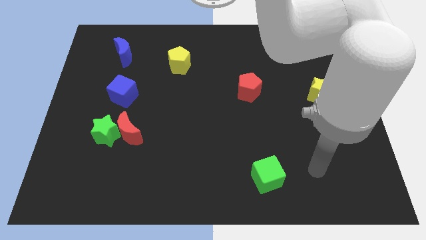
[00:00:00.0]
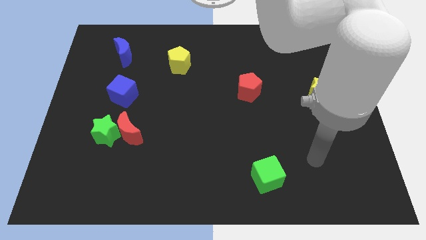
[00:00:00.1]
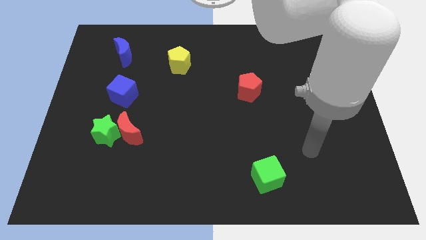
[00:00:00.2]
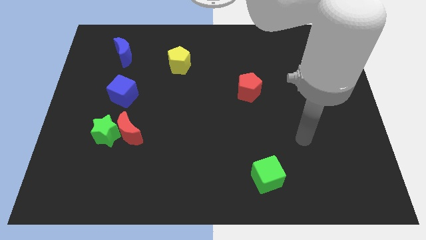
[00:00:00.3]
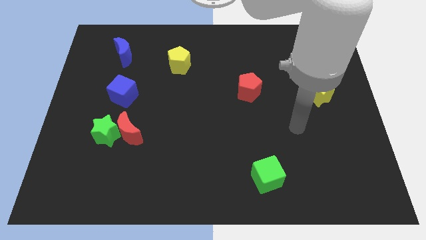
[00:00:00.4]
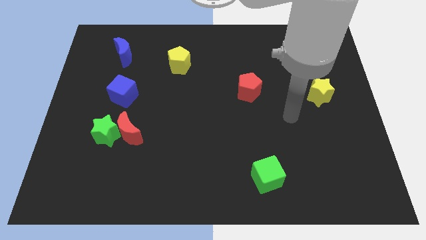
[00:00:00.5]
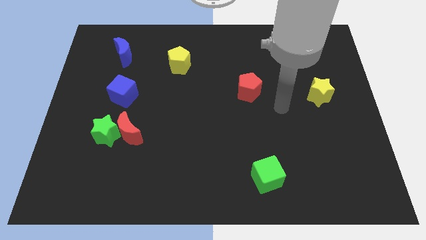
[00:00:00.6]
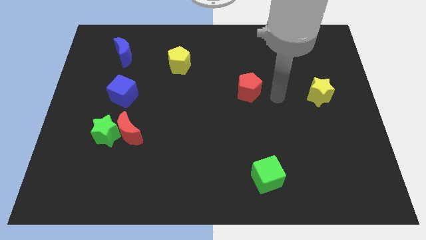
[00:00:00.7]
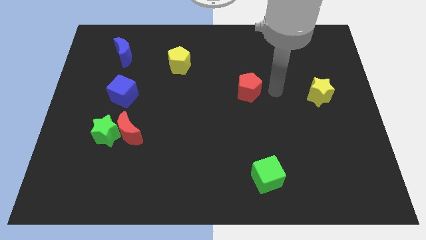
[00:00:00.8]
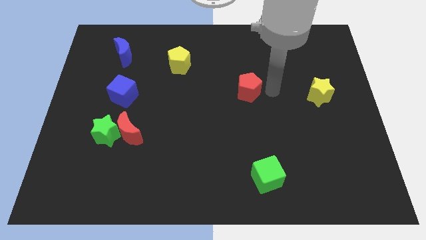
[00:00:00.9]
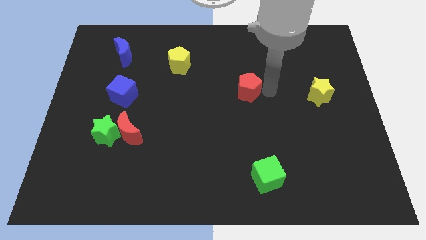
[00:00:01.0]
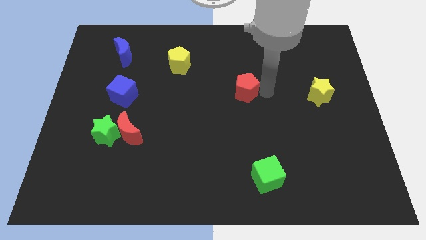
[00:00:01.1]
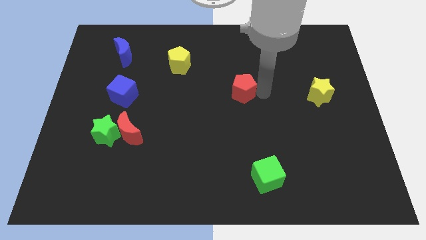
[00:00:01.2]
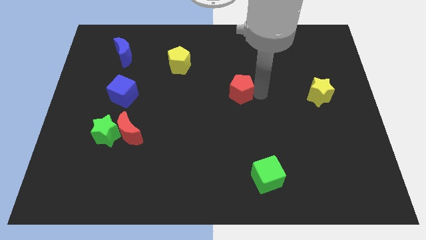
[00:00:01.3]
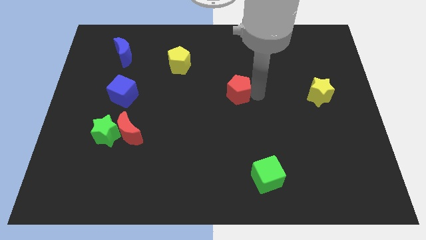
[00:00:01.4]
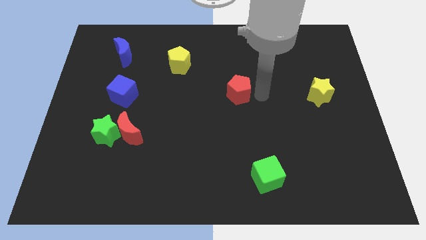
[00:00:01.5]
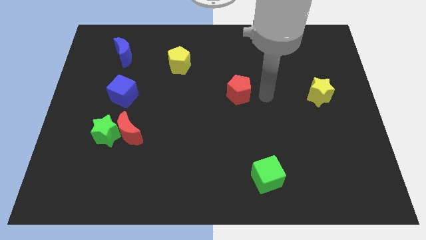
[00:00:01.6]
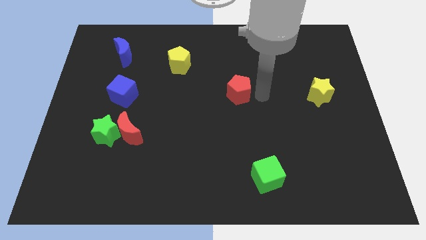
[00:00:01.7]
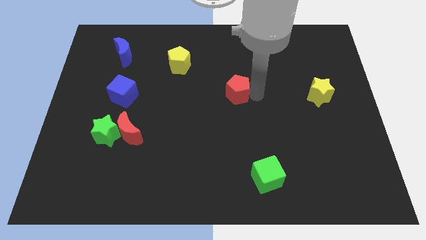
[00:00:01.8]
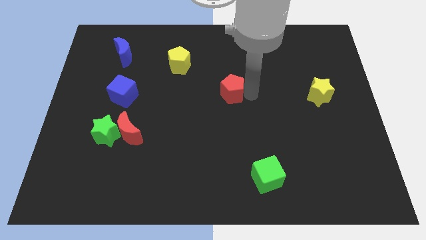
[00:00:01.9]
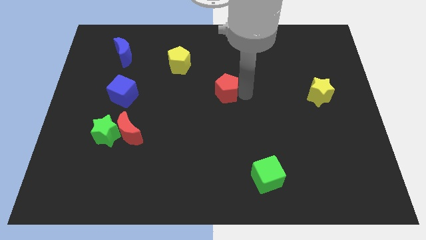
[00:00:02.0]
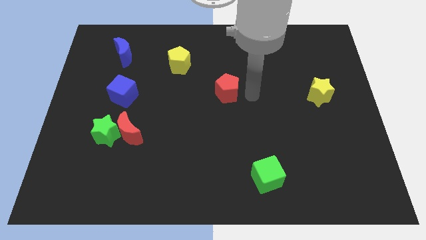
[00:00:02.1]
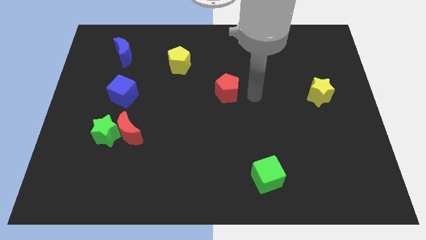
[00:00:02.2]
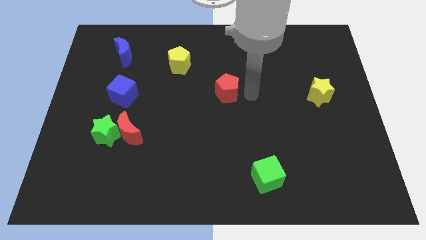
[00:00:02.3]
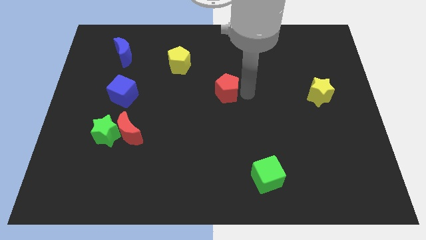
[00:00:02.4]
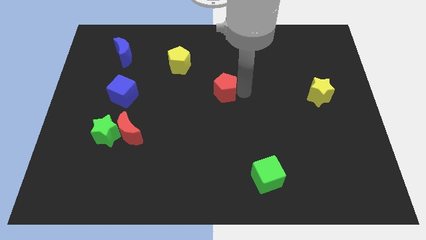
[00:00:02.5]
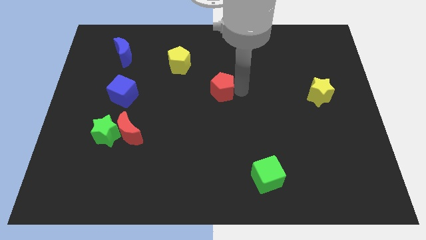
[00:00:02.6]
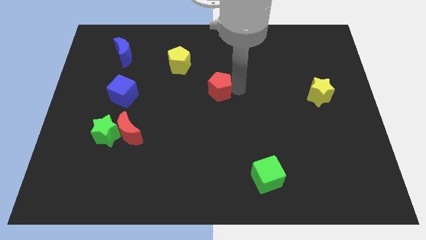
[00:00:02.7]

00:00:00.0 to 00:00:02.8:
slide the red pentagon to the left slightly

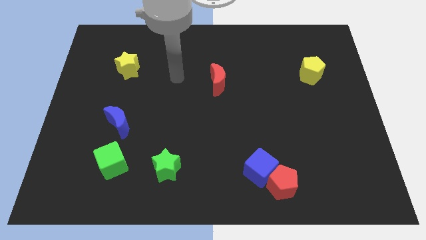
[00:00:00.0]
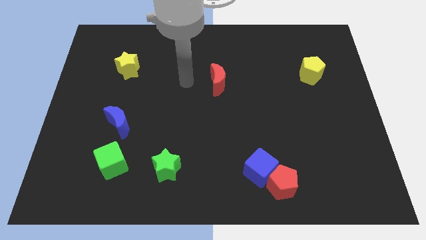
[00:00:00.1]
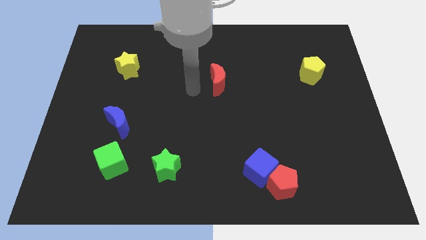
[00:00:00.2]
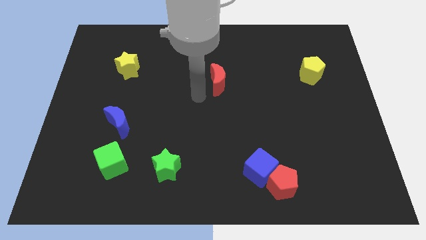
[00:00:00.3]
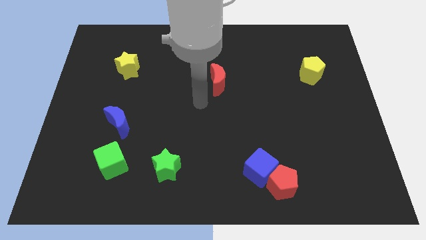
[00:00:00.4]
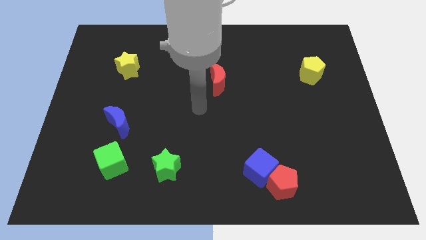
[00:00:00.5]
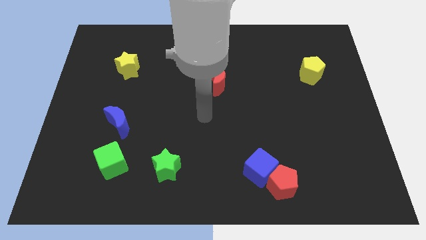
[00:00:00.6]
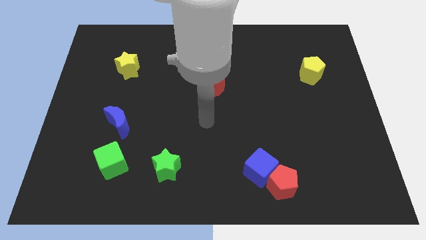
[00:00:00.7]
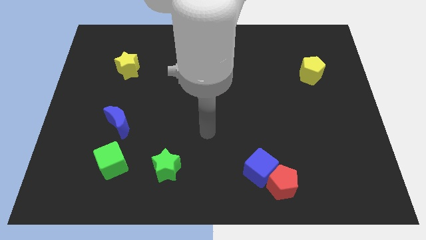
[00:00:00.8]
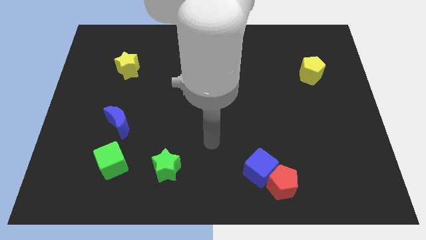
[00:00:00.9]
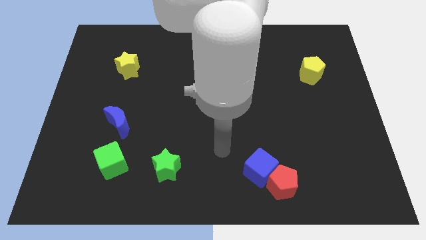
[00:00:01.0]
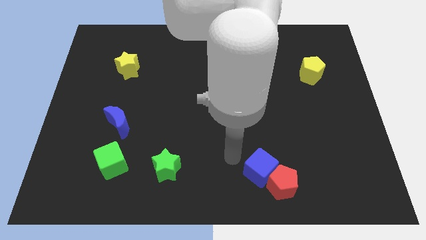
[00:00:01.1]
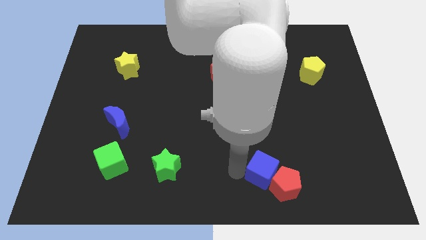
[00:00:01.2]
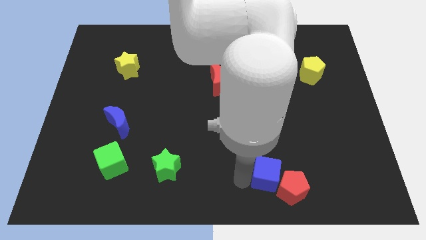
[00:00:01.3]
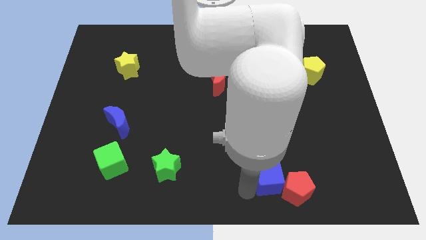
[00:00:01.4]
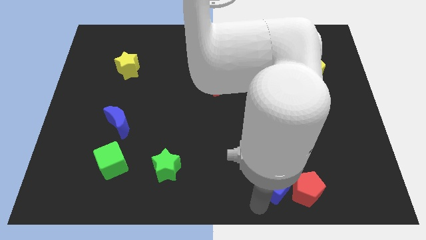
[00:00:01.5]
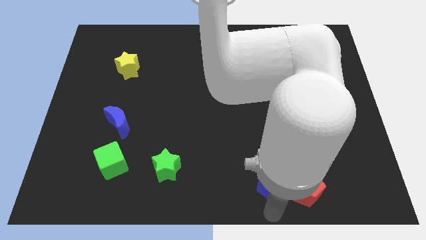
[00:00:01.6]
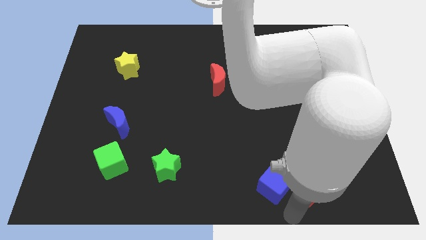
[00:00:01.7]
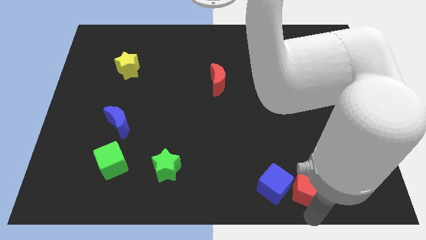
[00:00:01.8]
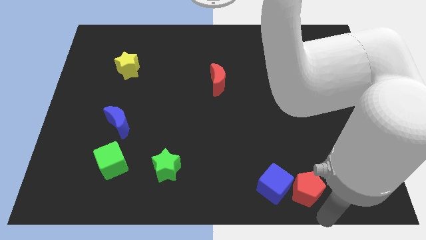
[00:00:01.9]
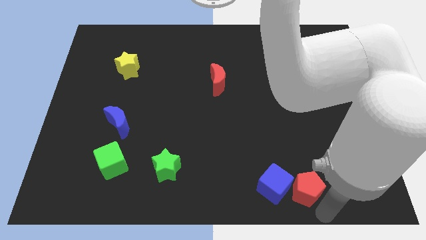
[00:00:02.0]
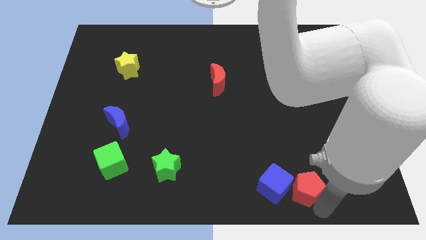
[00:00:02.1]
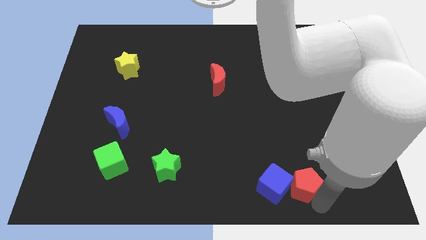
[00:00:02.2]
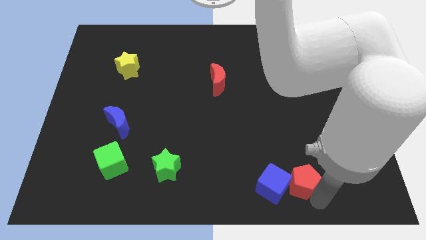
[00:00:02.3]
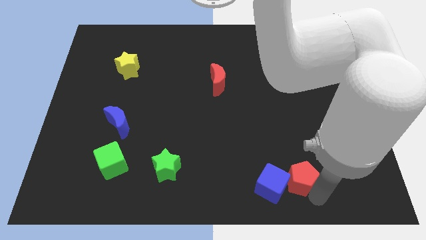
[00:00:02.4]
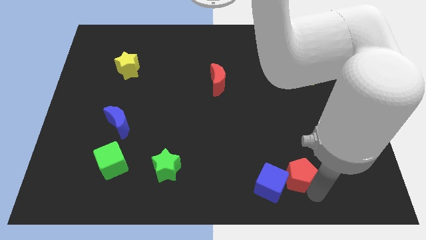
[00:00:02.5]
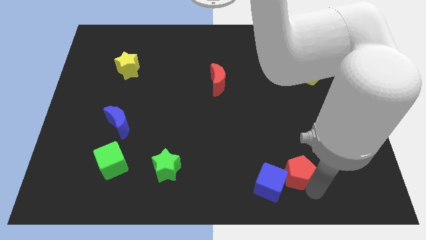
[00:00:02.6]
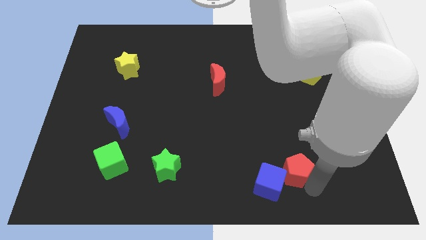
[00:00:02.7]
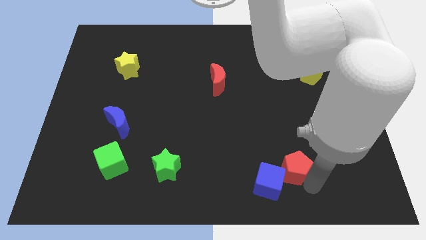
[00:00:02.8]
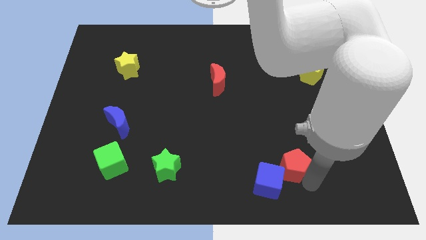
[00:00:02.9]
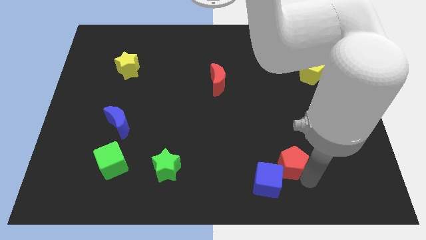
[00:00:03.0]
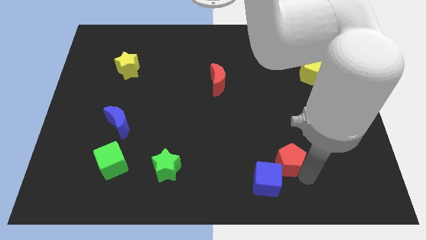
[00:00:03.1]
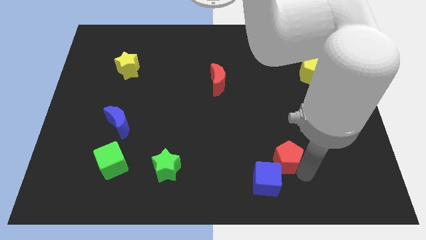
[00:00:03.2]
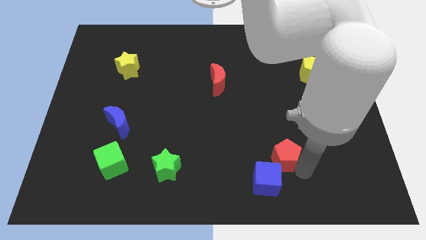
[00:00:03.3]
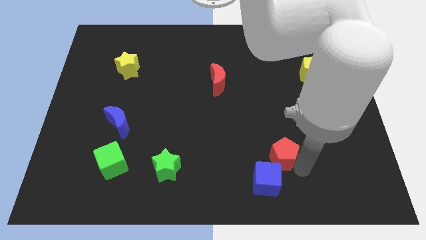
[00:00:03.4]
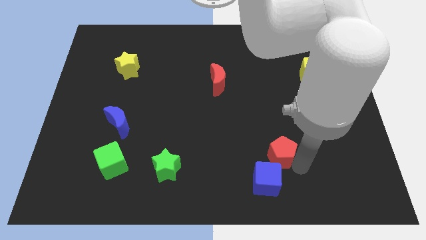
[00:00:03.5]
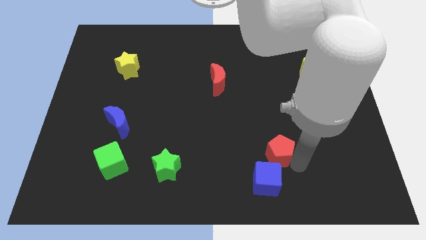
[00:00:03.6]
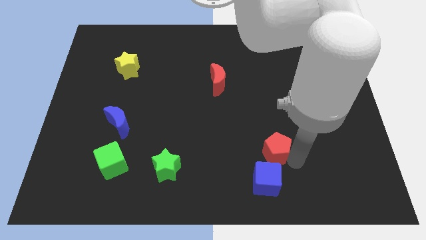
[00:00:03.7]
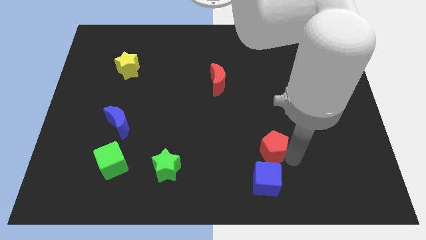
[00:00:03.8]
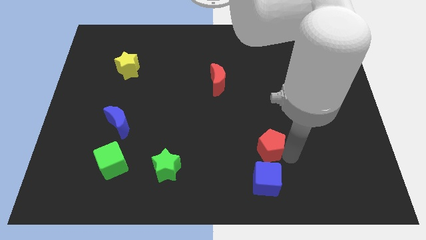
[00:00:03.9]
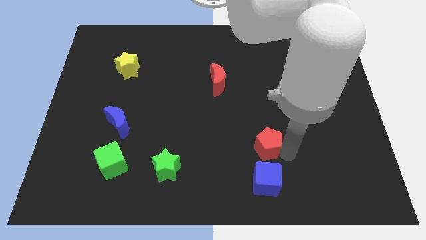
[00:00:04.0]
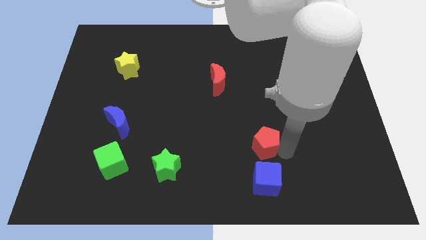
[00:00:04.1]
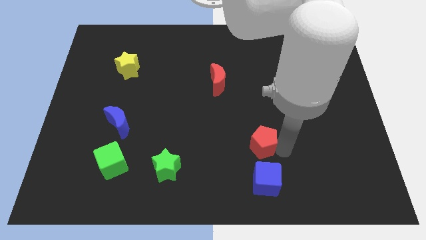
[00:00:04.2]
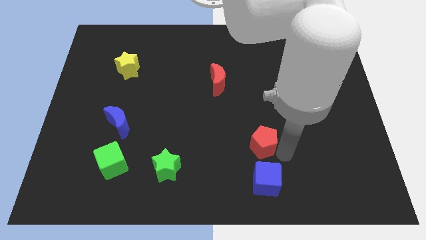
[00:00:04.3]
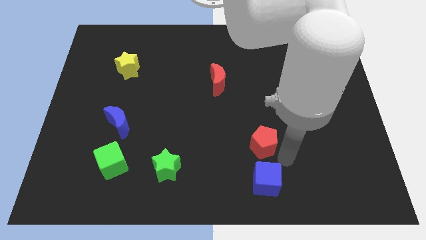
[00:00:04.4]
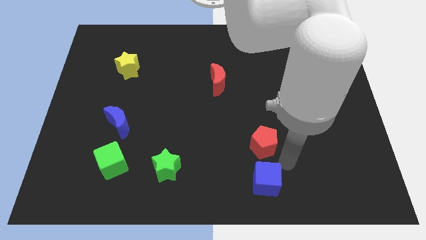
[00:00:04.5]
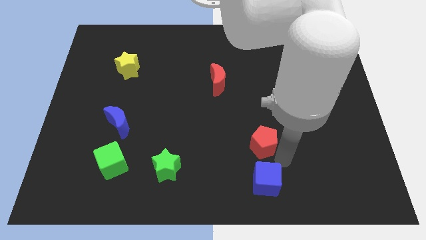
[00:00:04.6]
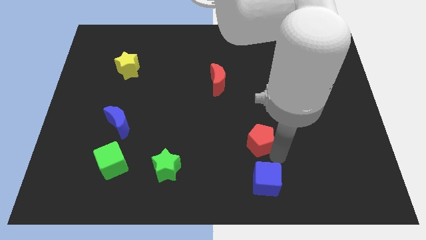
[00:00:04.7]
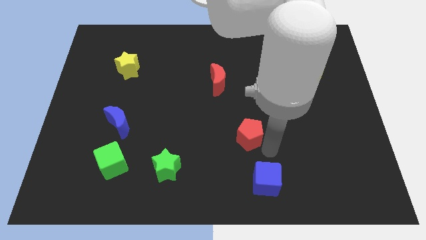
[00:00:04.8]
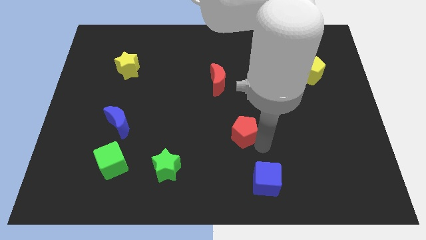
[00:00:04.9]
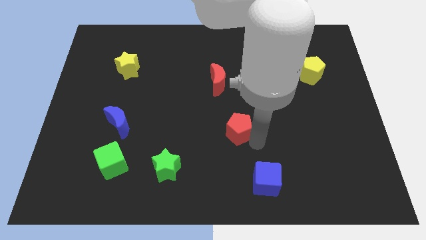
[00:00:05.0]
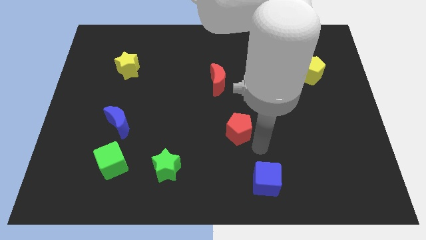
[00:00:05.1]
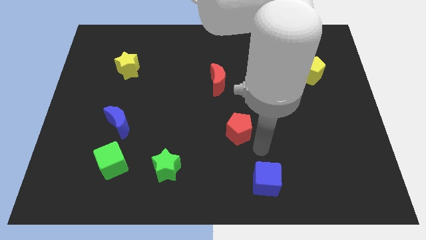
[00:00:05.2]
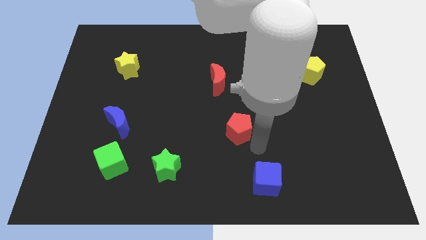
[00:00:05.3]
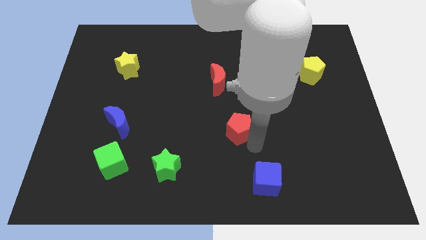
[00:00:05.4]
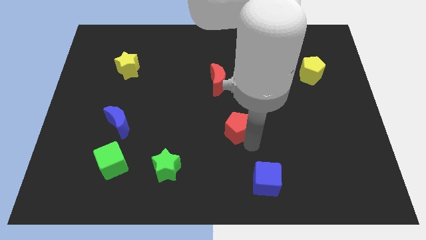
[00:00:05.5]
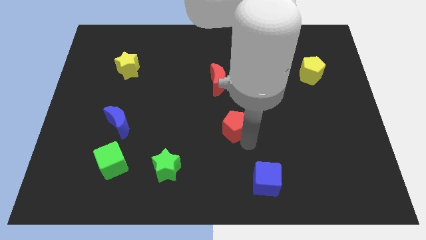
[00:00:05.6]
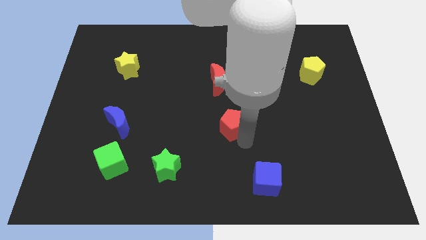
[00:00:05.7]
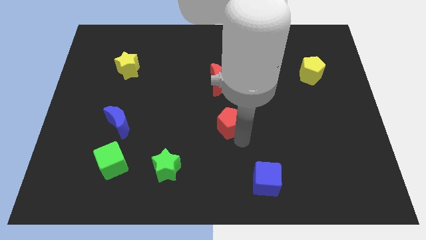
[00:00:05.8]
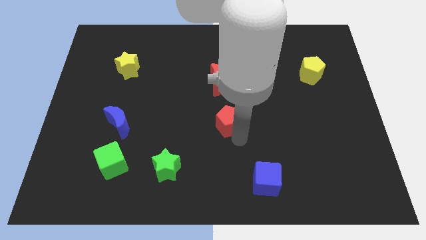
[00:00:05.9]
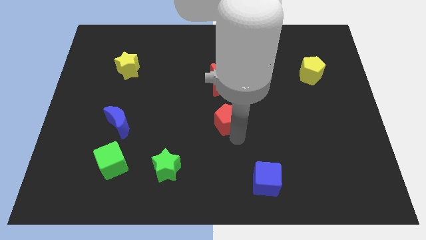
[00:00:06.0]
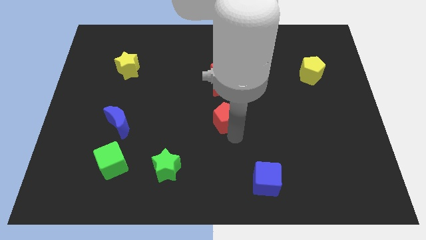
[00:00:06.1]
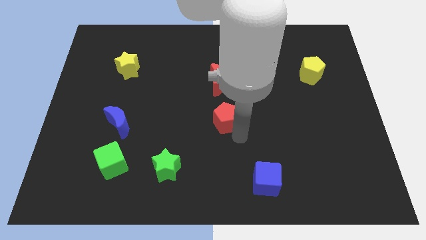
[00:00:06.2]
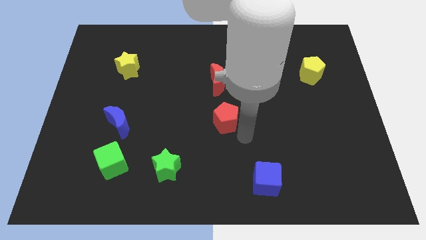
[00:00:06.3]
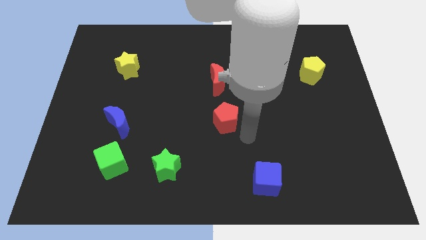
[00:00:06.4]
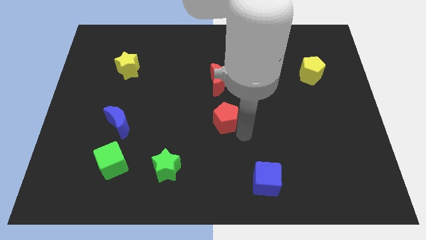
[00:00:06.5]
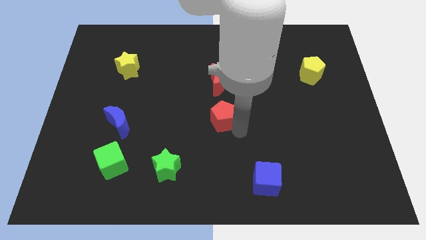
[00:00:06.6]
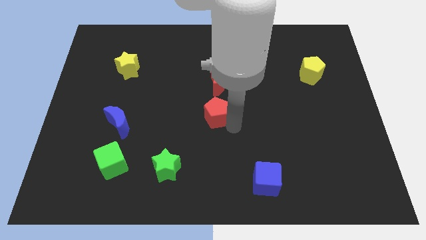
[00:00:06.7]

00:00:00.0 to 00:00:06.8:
slide the red pentagon upwards and then left
